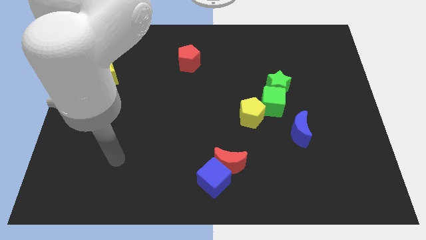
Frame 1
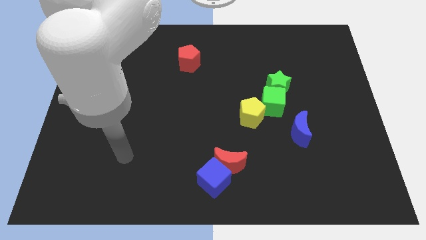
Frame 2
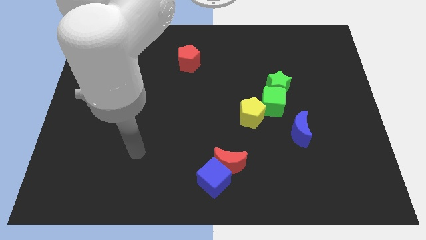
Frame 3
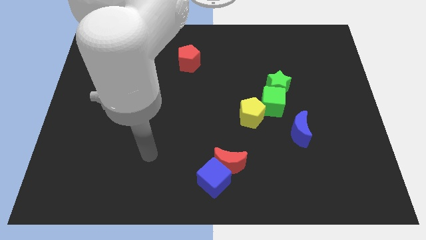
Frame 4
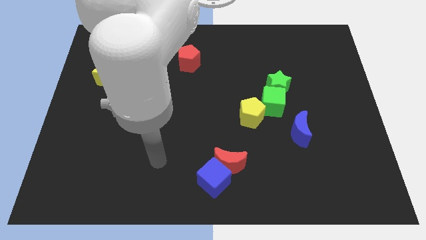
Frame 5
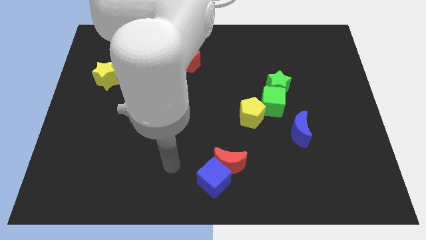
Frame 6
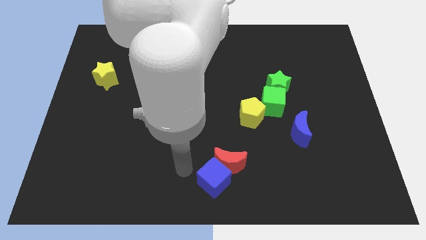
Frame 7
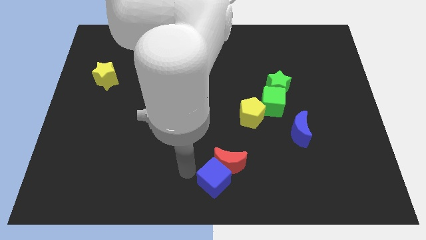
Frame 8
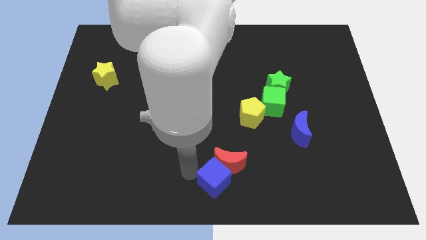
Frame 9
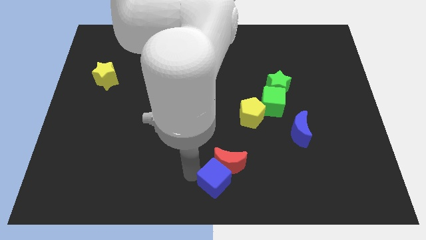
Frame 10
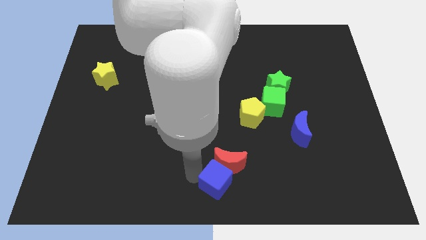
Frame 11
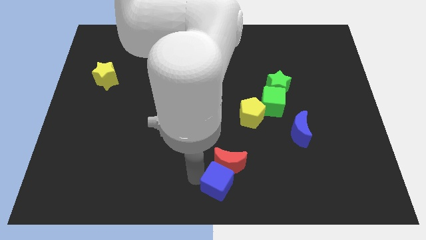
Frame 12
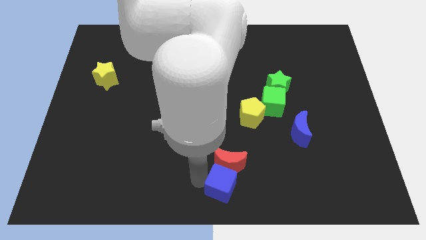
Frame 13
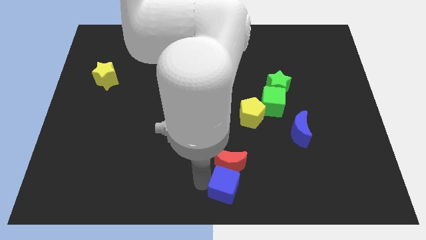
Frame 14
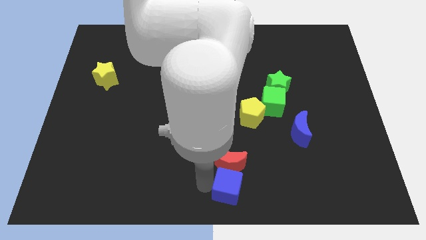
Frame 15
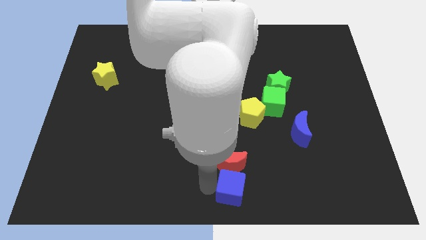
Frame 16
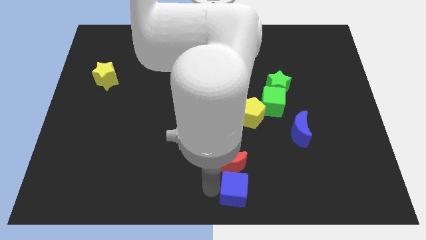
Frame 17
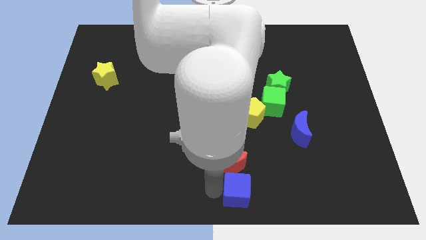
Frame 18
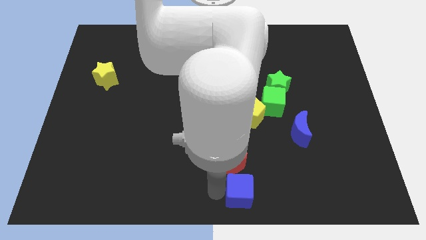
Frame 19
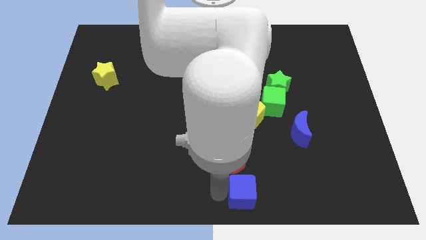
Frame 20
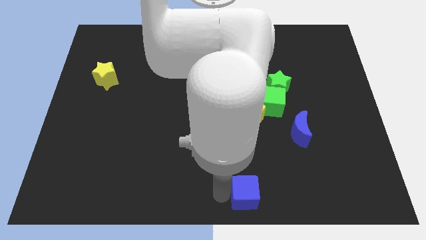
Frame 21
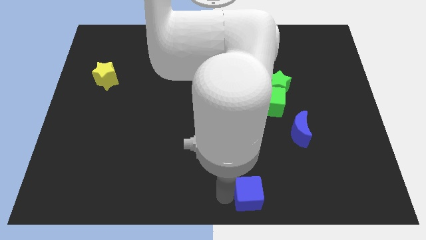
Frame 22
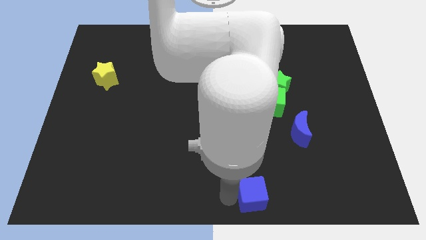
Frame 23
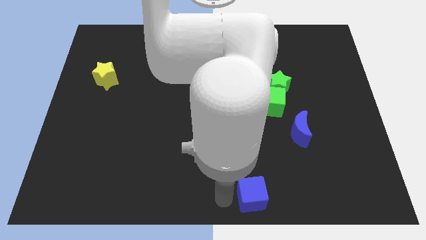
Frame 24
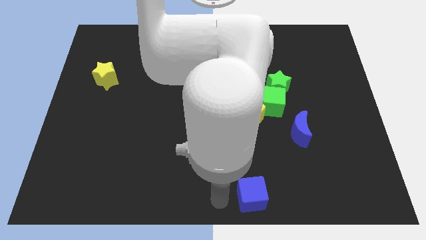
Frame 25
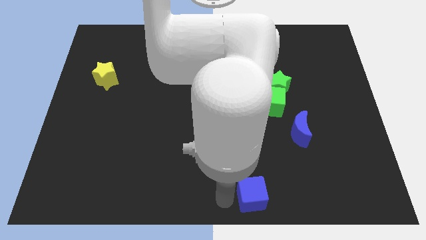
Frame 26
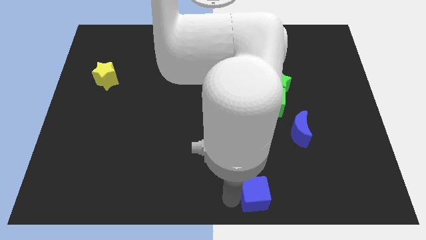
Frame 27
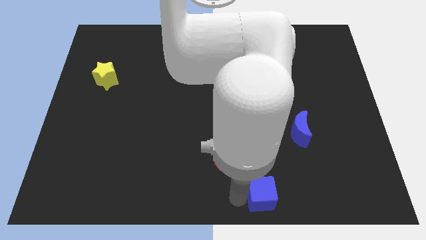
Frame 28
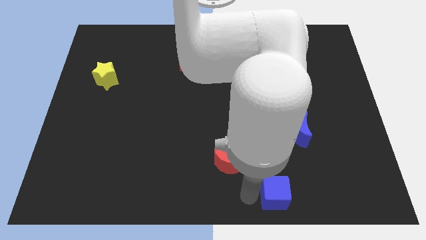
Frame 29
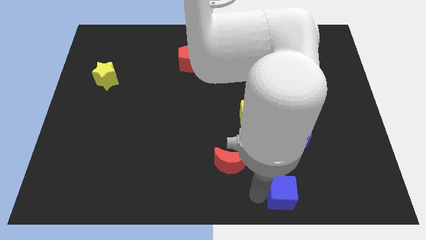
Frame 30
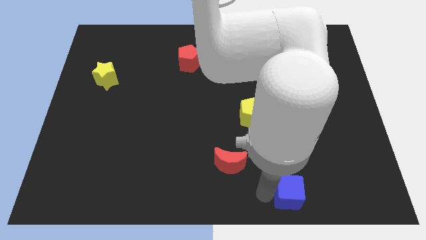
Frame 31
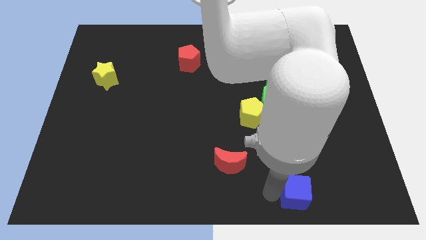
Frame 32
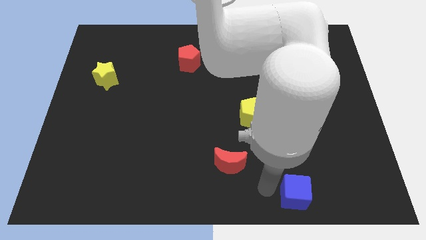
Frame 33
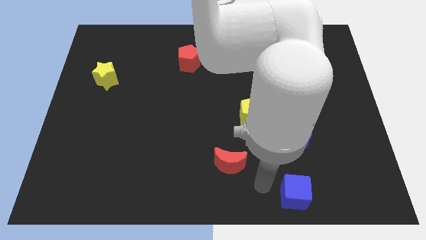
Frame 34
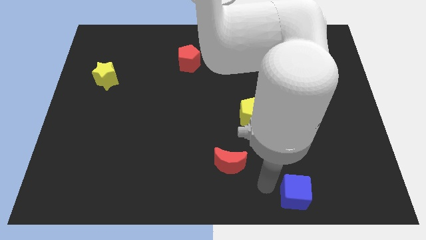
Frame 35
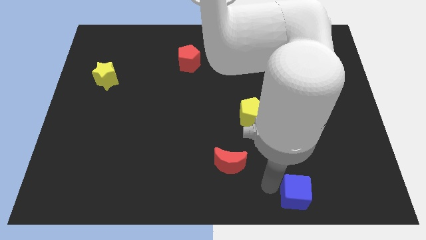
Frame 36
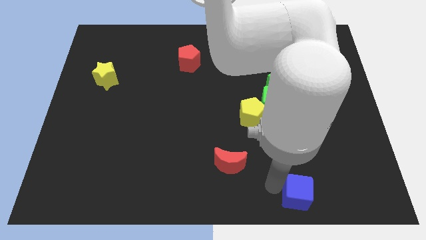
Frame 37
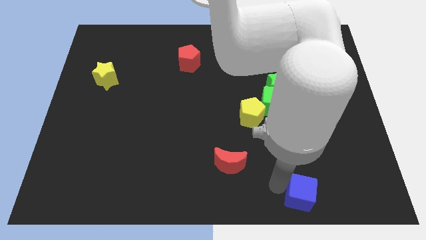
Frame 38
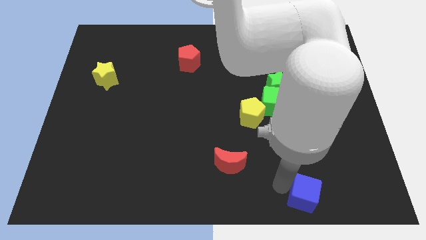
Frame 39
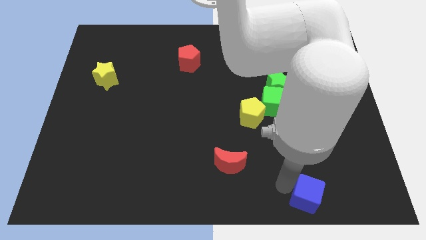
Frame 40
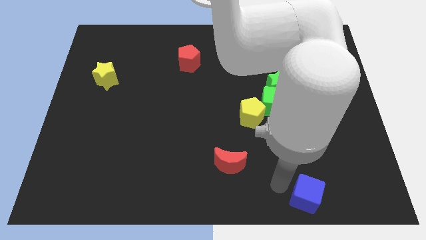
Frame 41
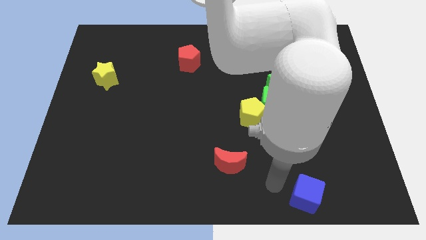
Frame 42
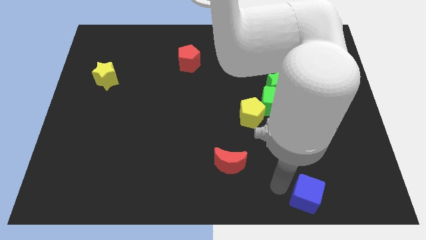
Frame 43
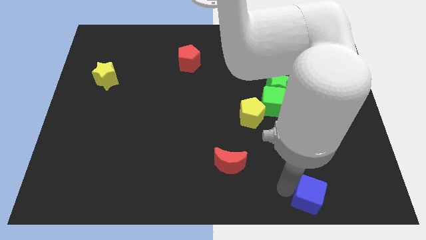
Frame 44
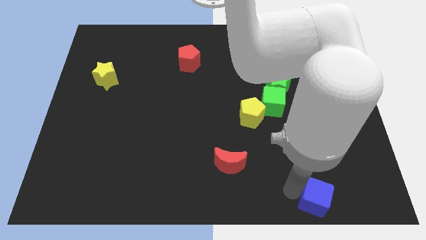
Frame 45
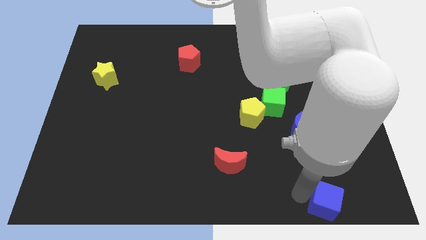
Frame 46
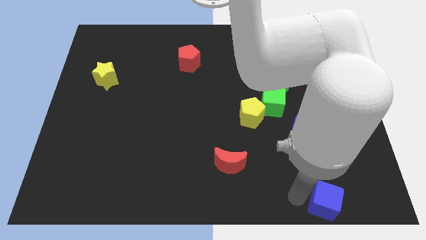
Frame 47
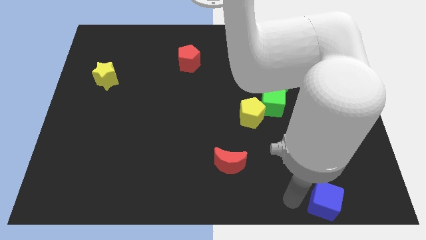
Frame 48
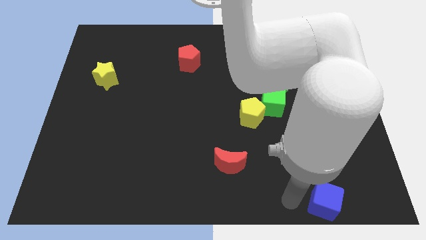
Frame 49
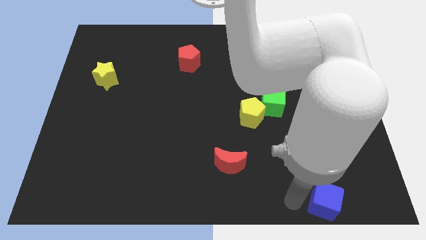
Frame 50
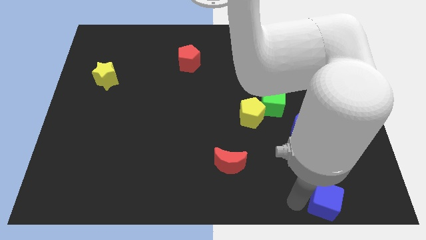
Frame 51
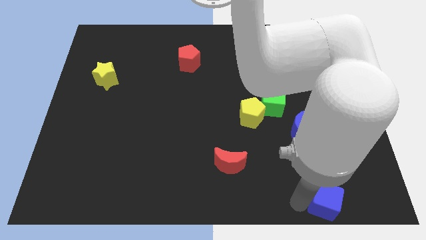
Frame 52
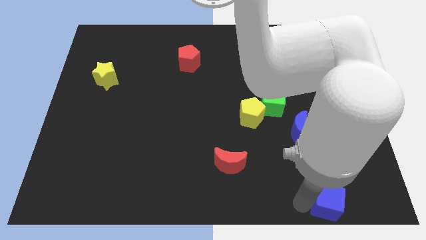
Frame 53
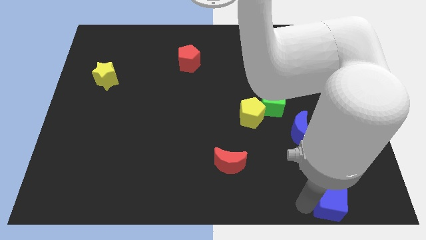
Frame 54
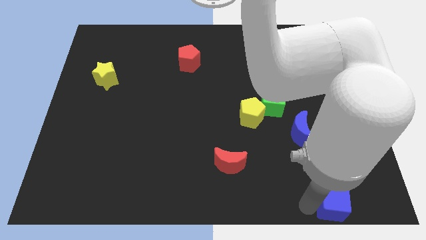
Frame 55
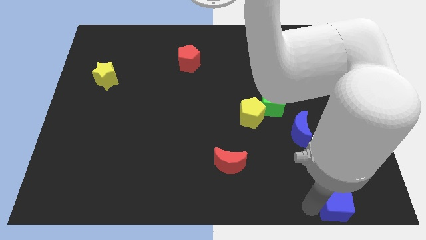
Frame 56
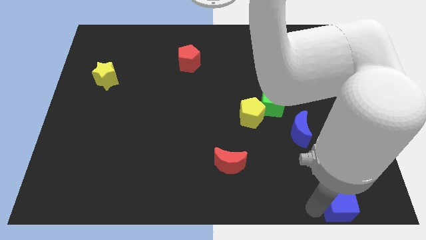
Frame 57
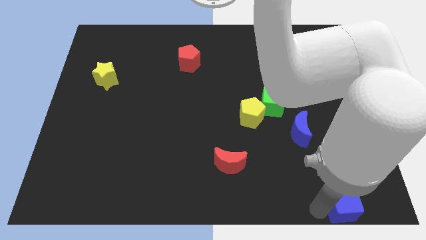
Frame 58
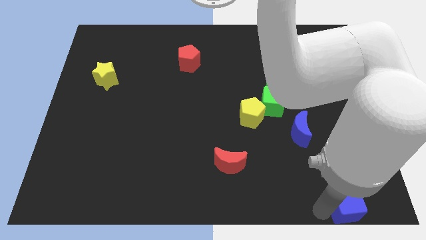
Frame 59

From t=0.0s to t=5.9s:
put the blue cube to the bottom right

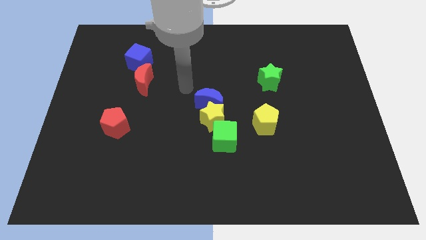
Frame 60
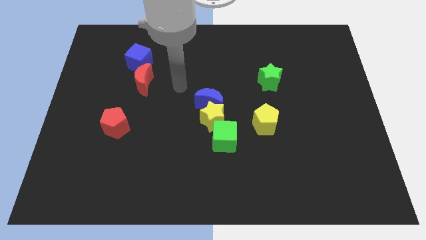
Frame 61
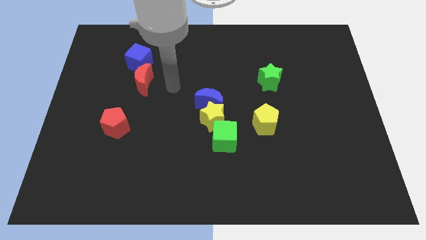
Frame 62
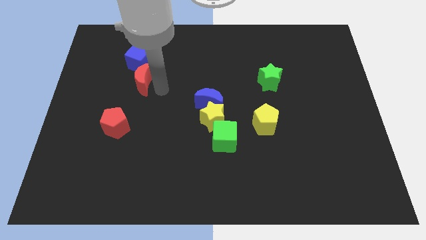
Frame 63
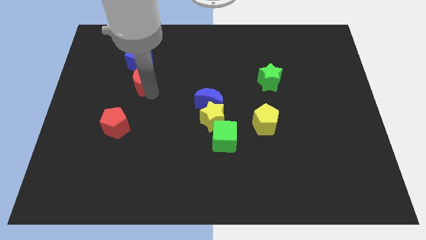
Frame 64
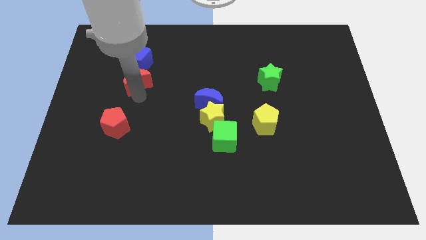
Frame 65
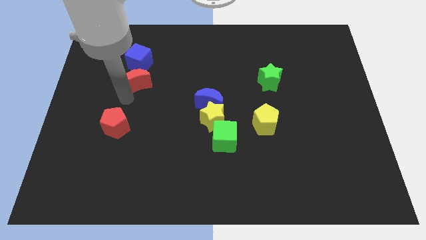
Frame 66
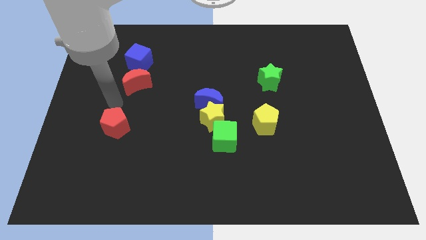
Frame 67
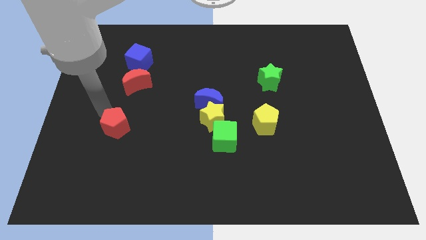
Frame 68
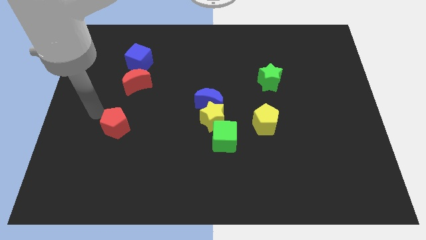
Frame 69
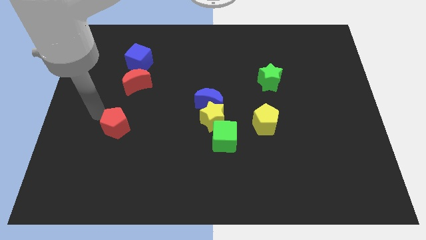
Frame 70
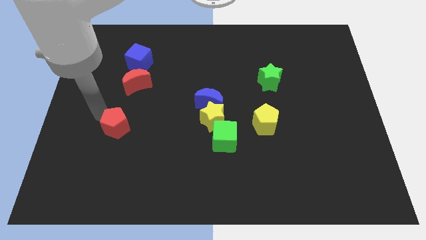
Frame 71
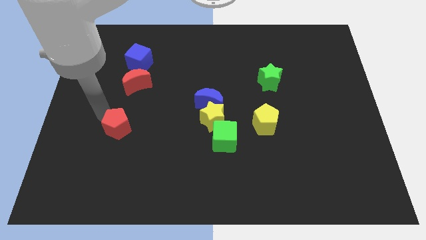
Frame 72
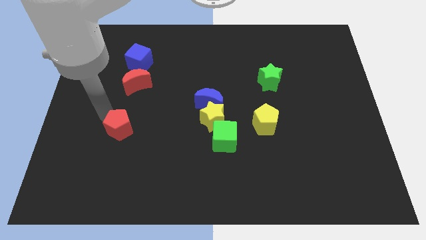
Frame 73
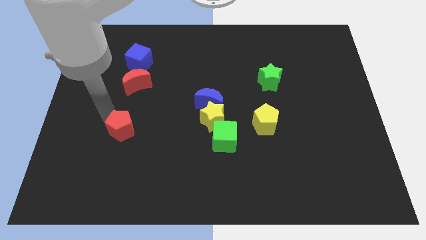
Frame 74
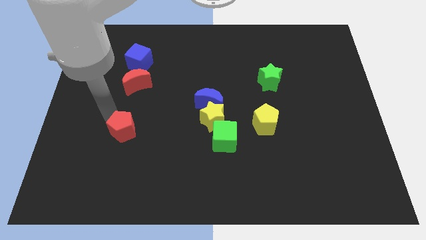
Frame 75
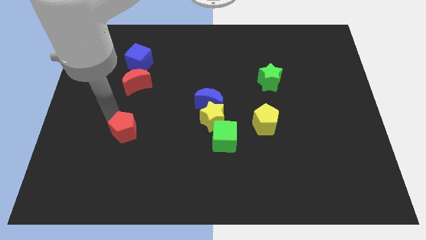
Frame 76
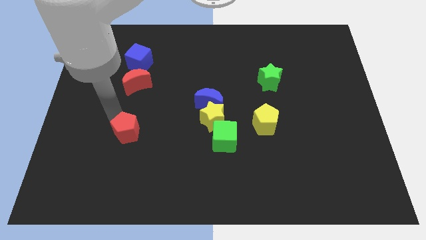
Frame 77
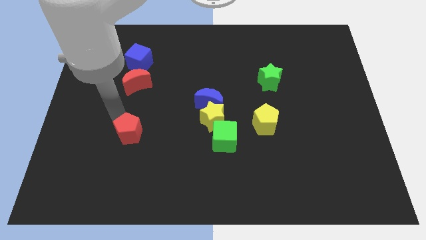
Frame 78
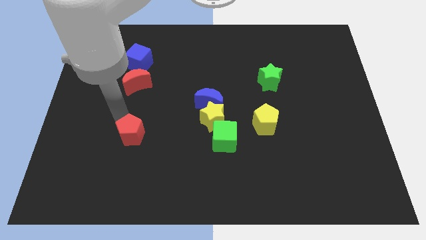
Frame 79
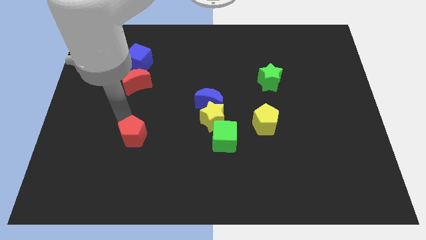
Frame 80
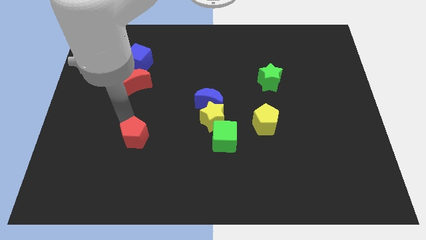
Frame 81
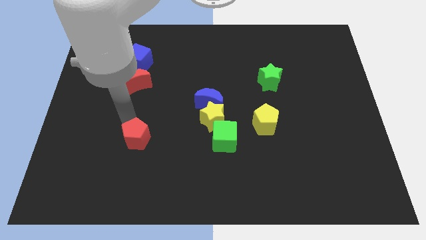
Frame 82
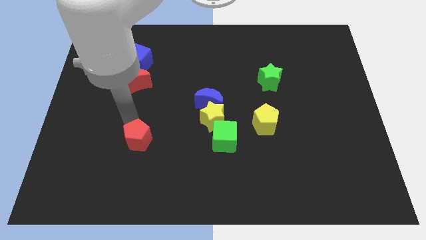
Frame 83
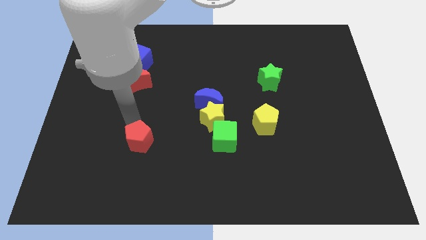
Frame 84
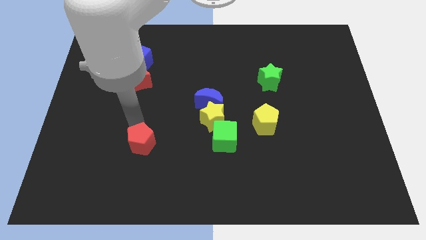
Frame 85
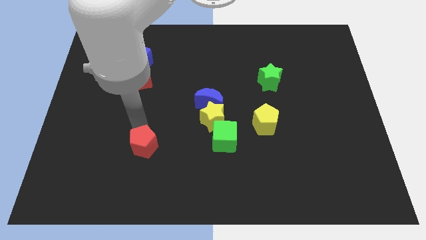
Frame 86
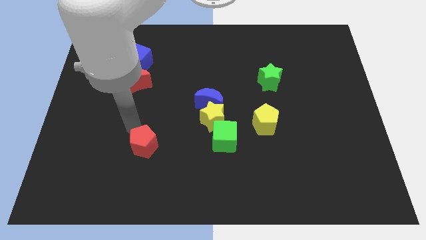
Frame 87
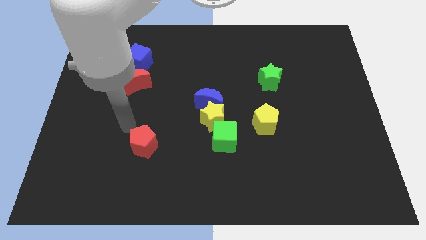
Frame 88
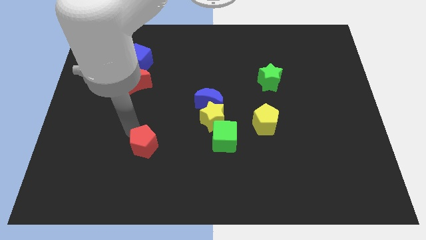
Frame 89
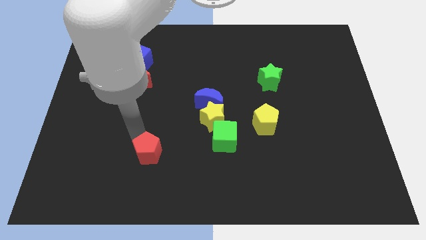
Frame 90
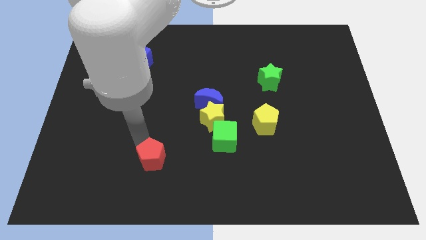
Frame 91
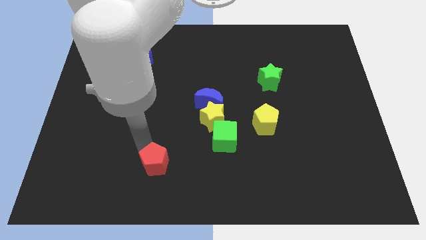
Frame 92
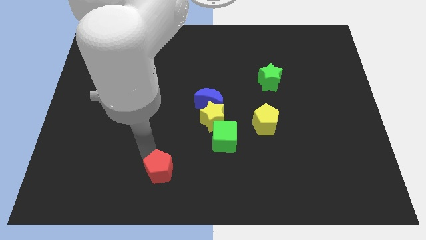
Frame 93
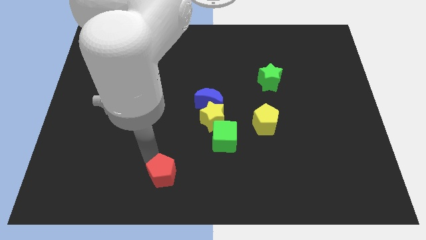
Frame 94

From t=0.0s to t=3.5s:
slide the red pentagon to the bottom
